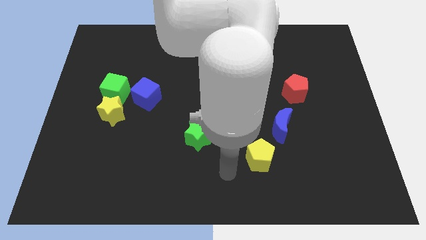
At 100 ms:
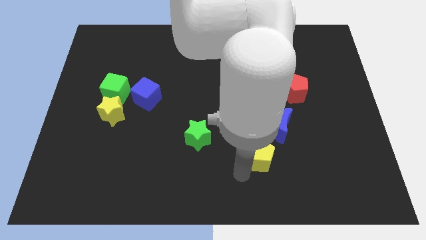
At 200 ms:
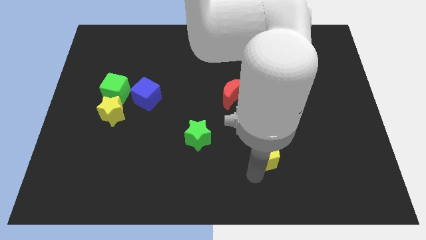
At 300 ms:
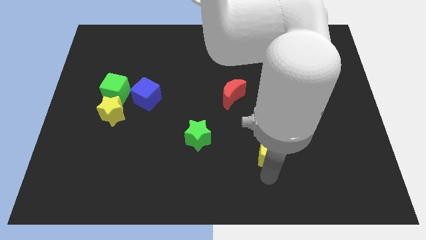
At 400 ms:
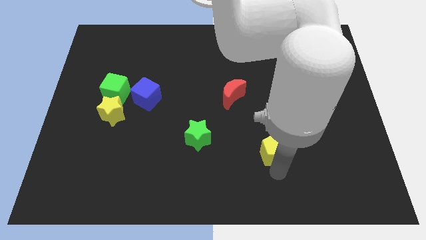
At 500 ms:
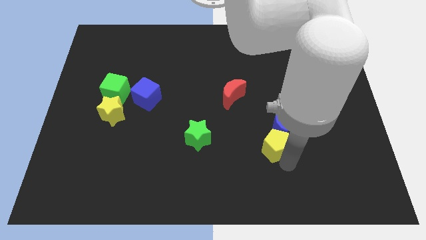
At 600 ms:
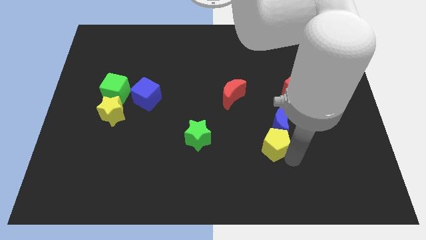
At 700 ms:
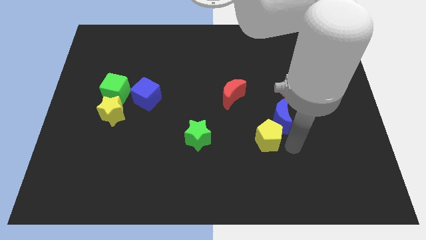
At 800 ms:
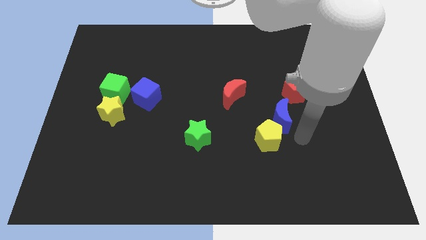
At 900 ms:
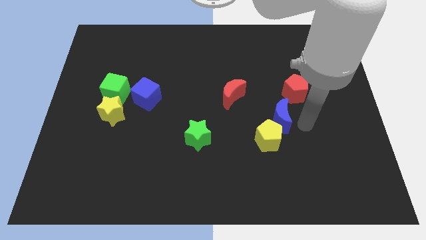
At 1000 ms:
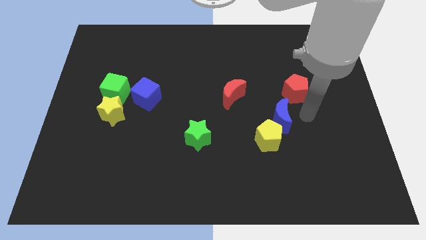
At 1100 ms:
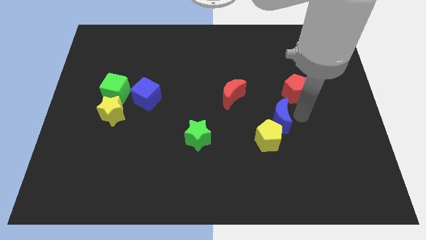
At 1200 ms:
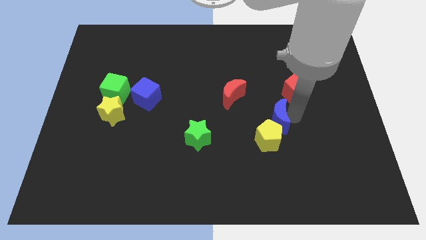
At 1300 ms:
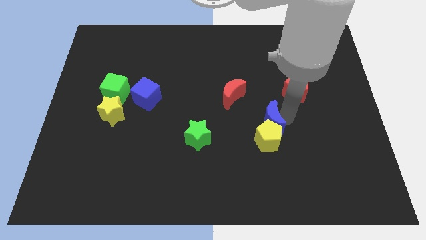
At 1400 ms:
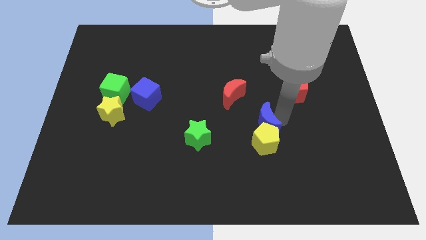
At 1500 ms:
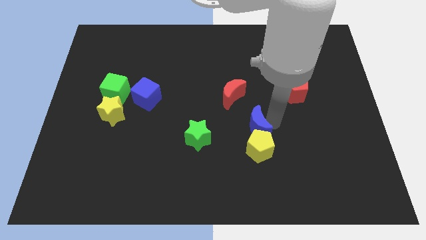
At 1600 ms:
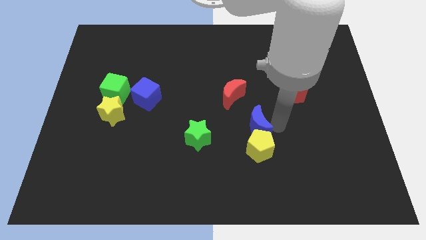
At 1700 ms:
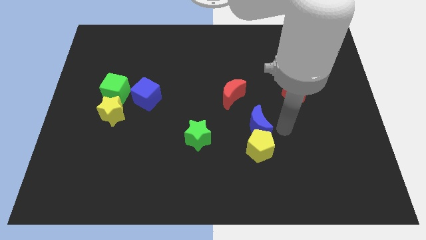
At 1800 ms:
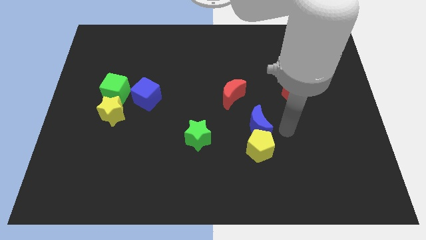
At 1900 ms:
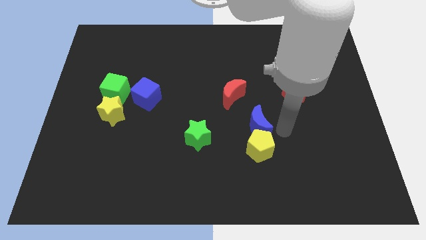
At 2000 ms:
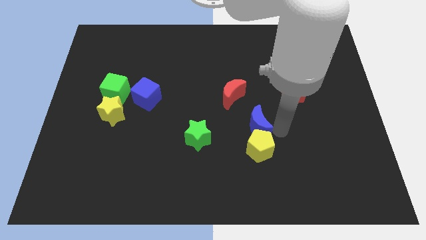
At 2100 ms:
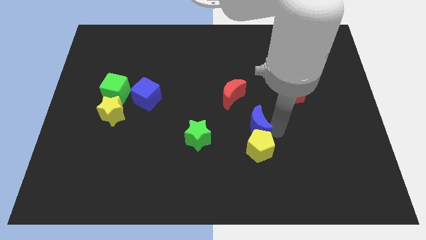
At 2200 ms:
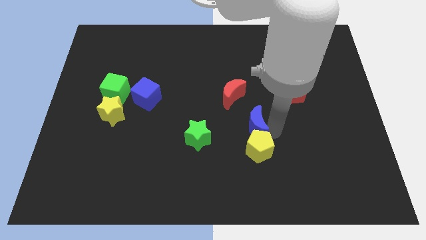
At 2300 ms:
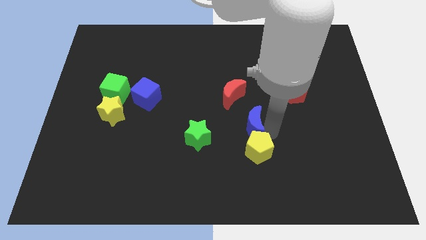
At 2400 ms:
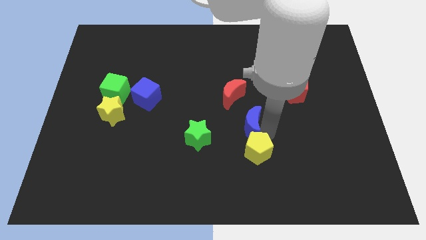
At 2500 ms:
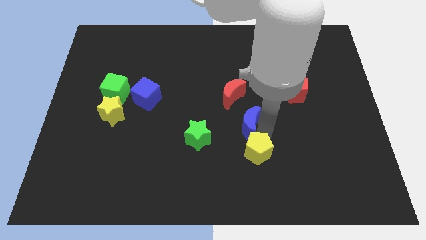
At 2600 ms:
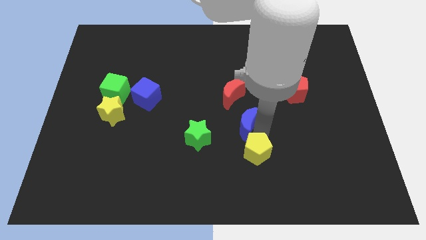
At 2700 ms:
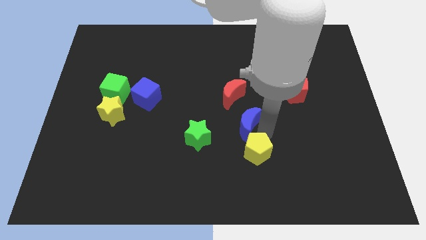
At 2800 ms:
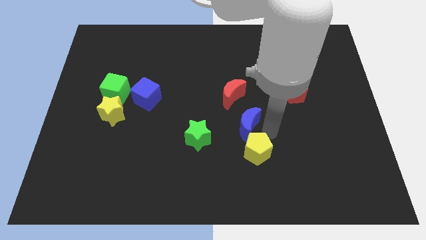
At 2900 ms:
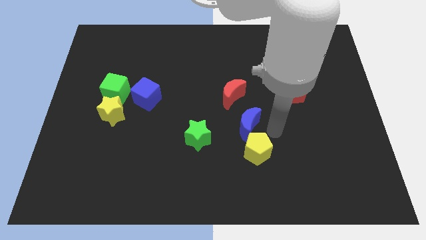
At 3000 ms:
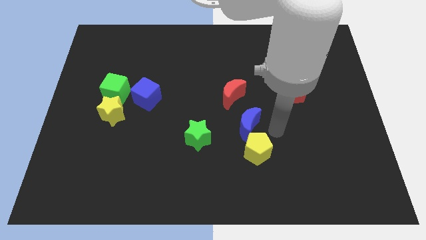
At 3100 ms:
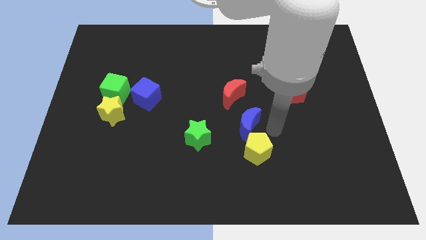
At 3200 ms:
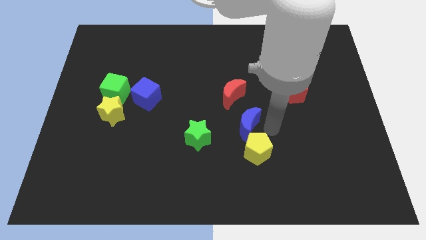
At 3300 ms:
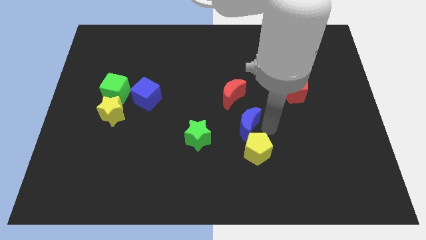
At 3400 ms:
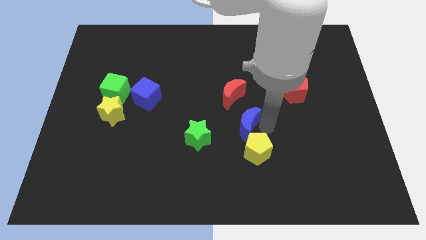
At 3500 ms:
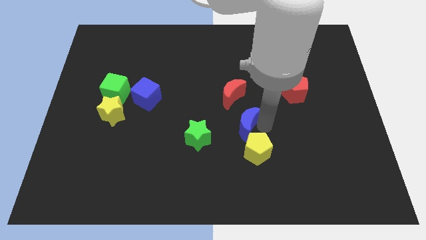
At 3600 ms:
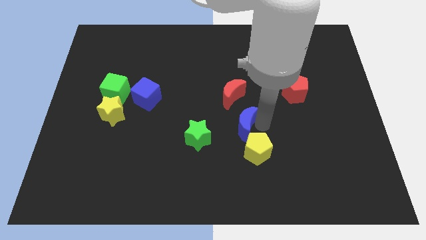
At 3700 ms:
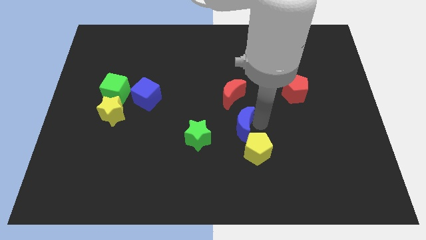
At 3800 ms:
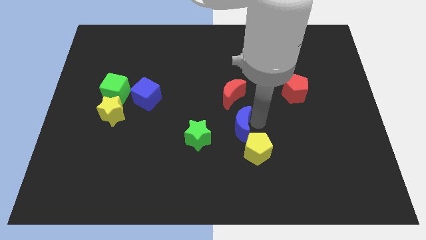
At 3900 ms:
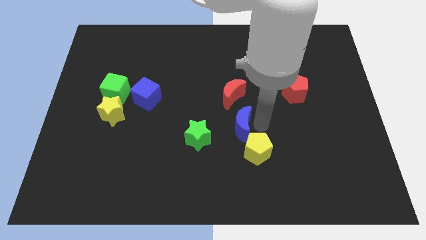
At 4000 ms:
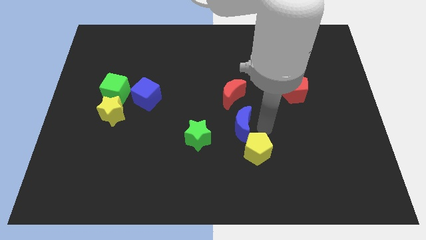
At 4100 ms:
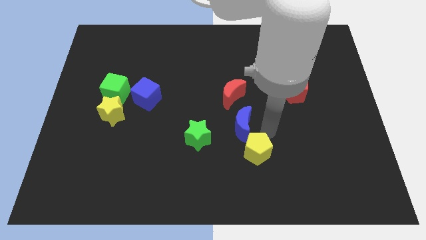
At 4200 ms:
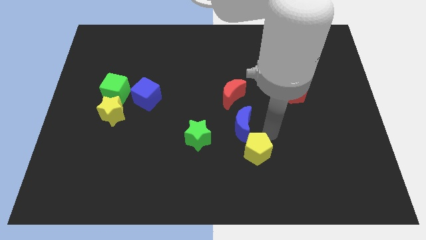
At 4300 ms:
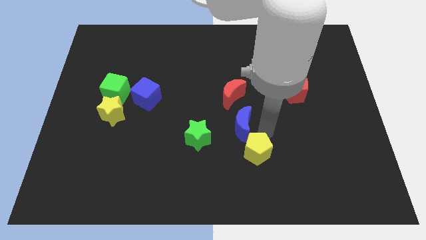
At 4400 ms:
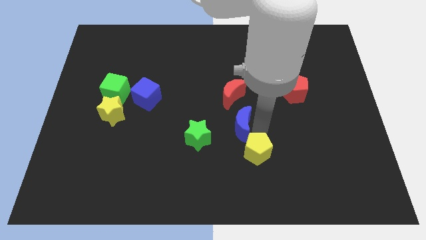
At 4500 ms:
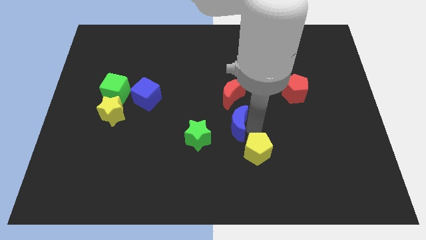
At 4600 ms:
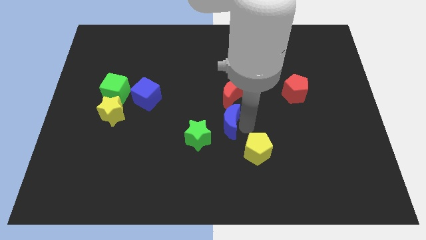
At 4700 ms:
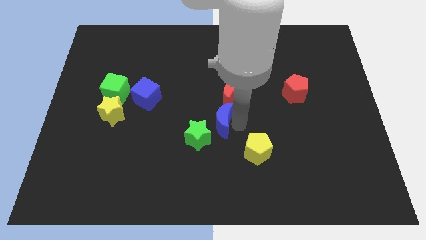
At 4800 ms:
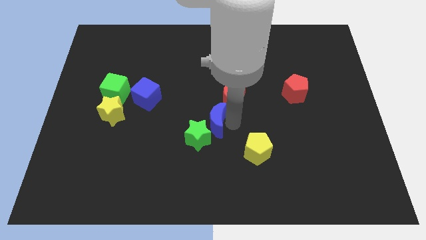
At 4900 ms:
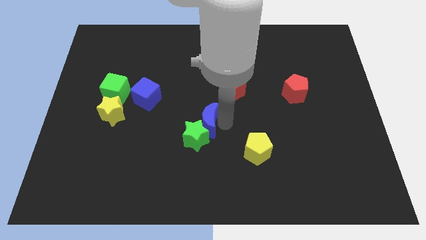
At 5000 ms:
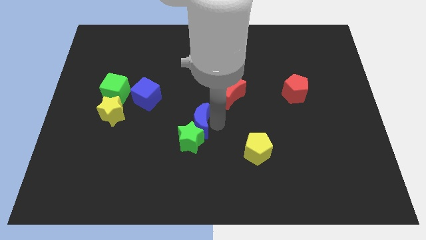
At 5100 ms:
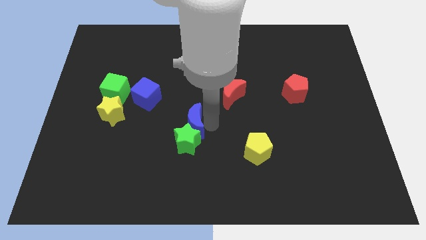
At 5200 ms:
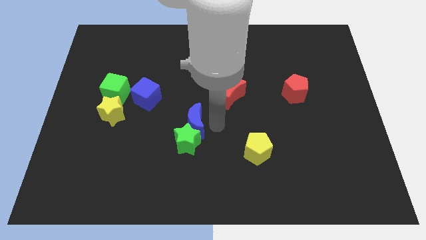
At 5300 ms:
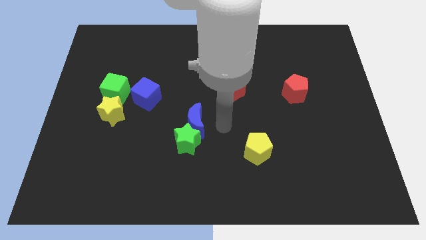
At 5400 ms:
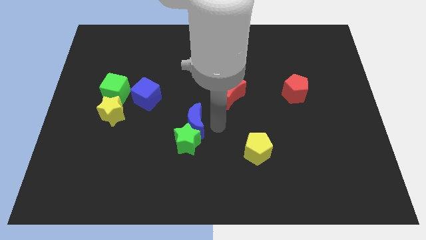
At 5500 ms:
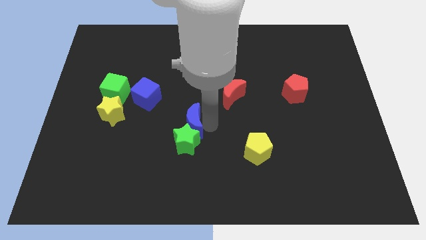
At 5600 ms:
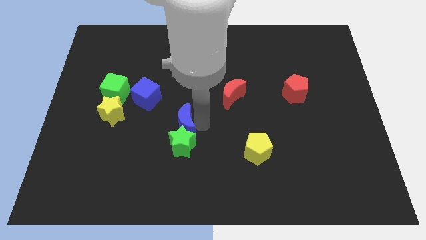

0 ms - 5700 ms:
move the blue moon left

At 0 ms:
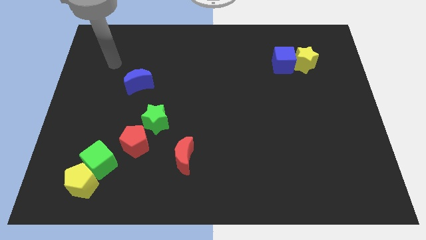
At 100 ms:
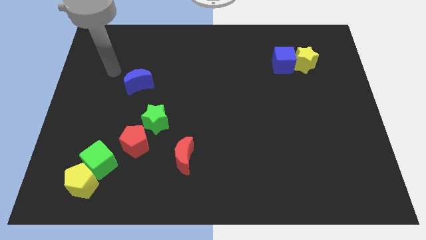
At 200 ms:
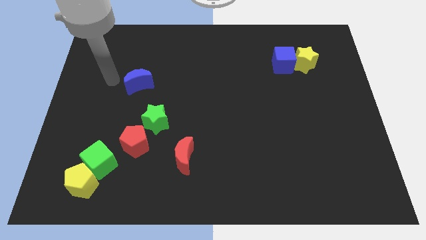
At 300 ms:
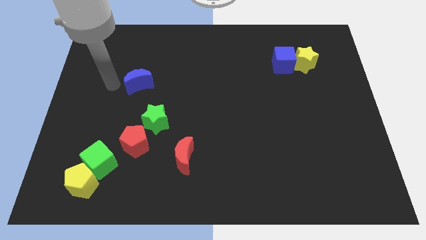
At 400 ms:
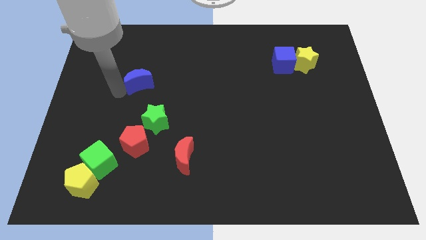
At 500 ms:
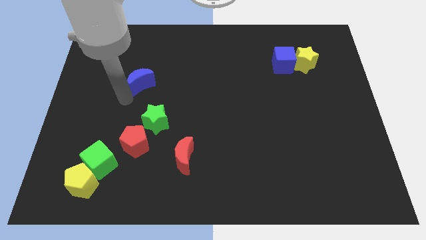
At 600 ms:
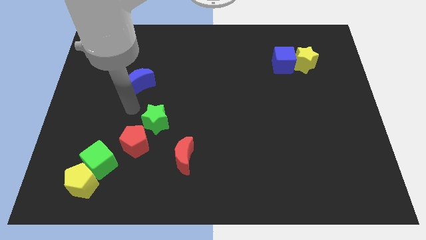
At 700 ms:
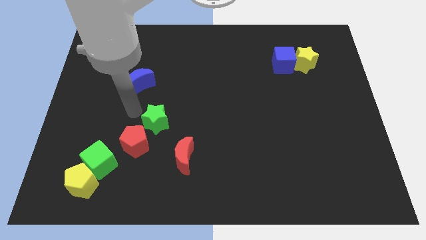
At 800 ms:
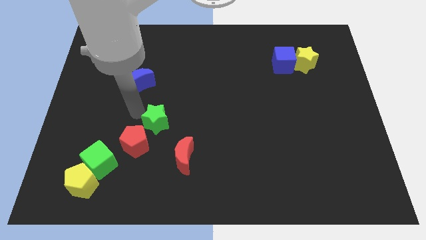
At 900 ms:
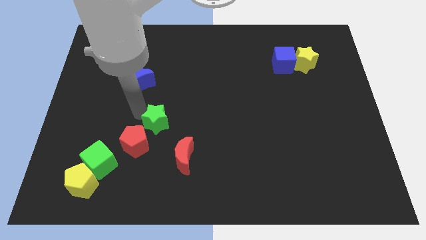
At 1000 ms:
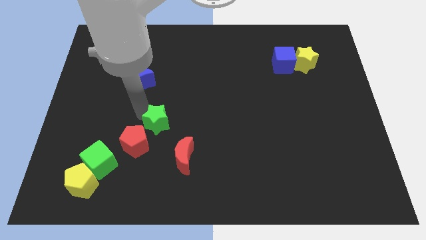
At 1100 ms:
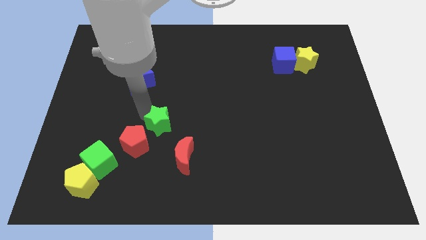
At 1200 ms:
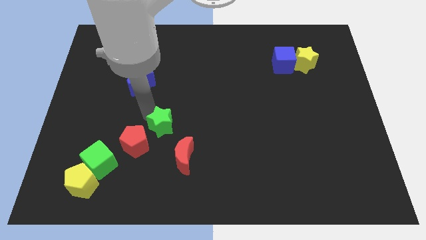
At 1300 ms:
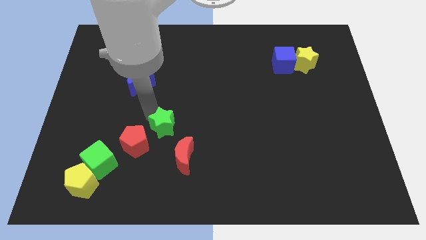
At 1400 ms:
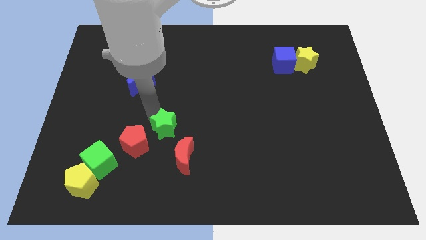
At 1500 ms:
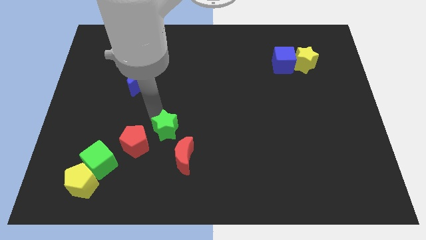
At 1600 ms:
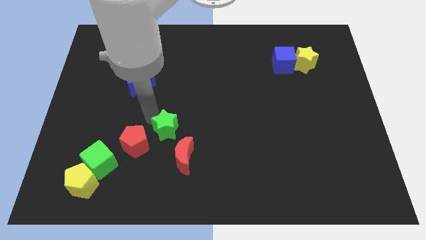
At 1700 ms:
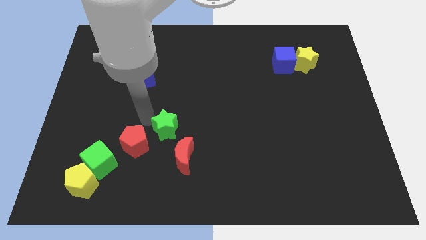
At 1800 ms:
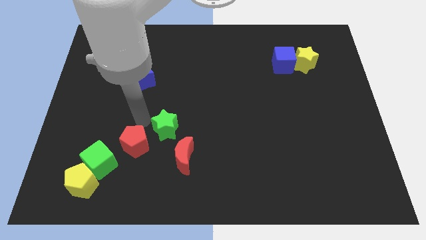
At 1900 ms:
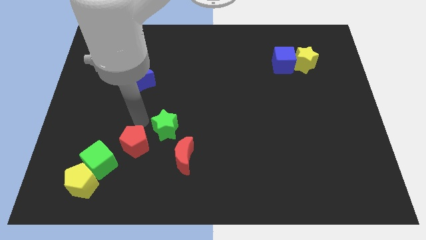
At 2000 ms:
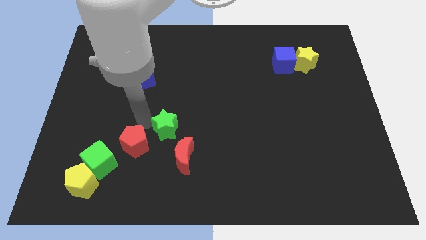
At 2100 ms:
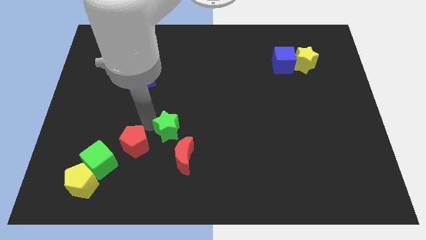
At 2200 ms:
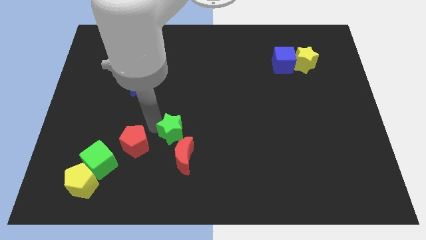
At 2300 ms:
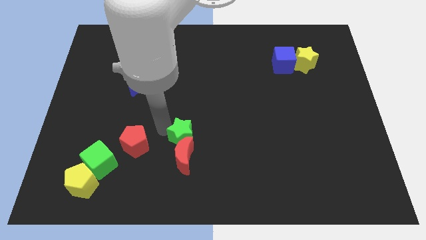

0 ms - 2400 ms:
slide the green star a little bit downwards and right
